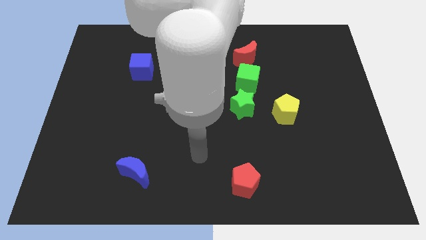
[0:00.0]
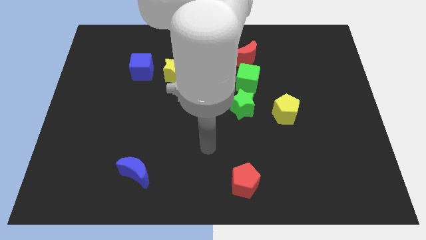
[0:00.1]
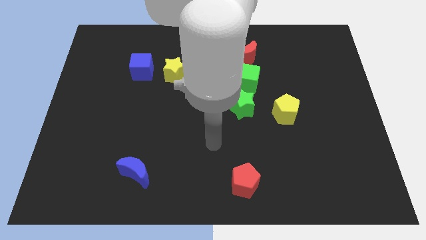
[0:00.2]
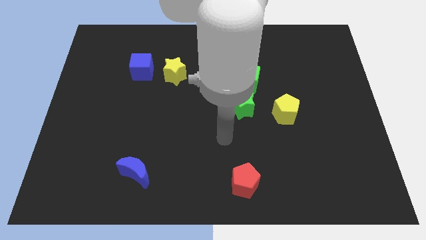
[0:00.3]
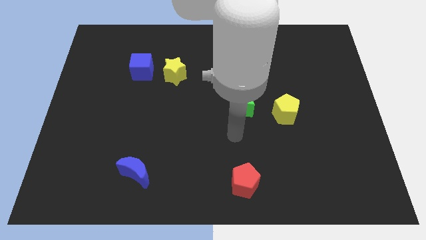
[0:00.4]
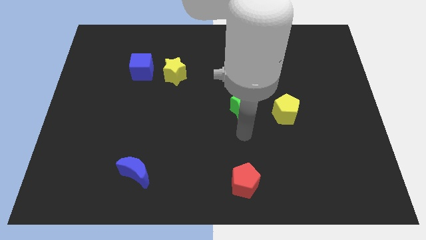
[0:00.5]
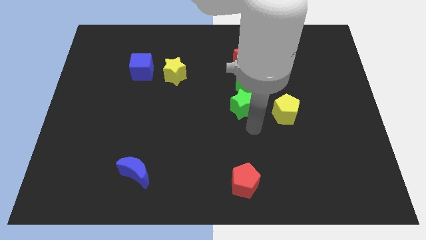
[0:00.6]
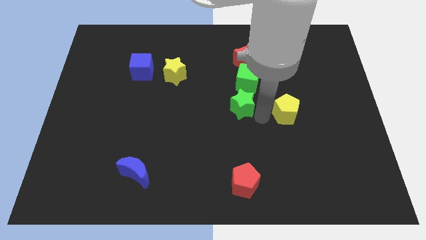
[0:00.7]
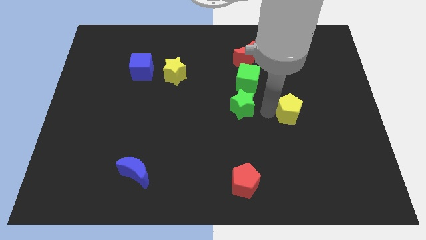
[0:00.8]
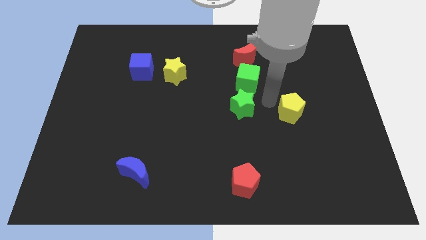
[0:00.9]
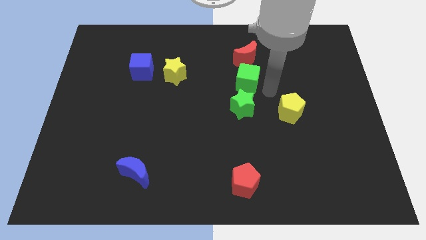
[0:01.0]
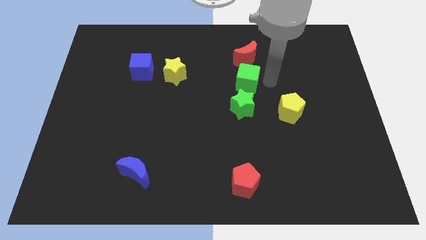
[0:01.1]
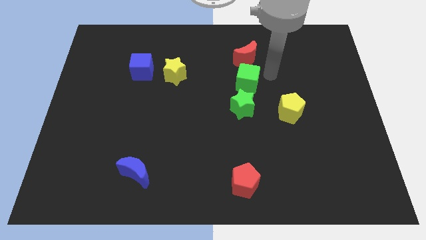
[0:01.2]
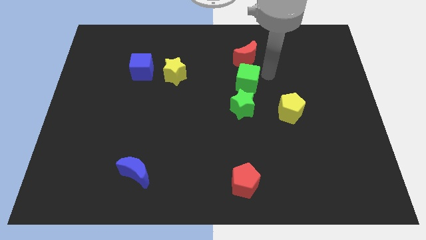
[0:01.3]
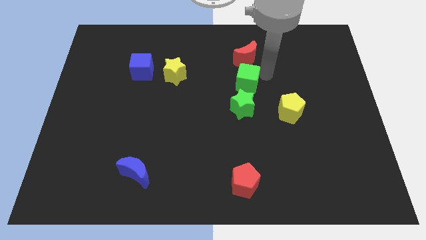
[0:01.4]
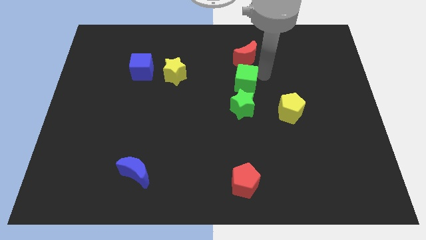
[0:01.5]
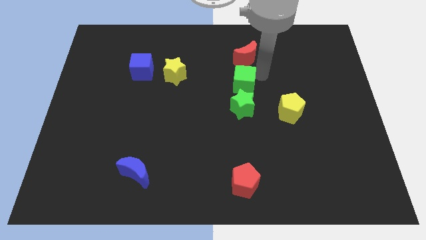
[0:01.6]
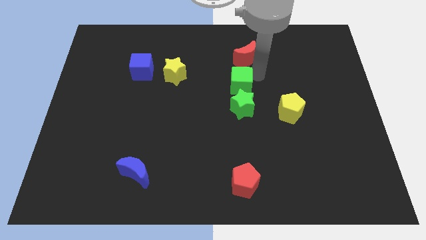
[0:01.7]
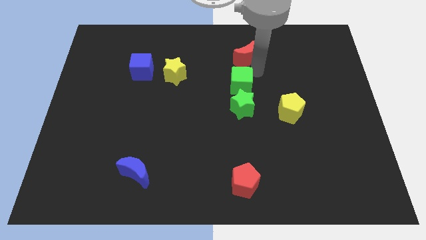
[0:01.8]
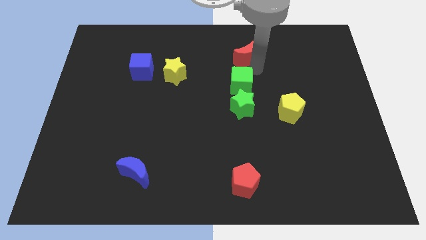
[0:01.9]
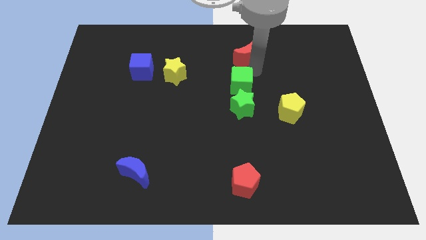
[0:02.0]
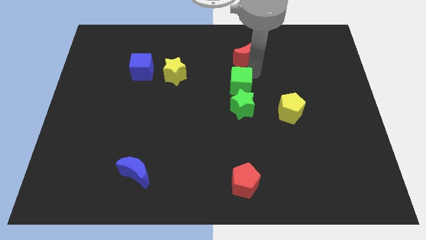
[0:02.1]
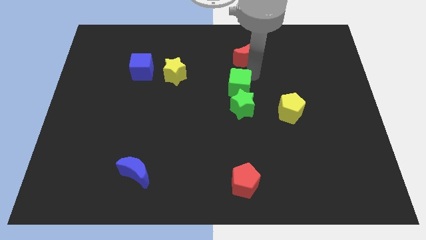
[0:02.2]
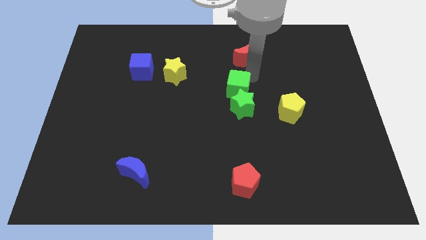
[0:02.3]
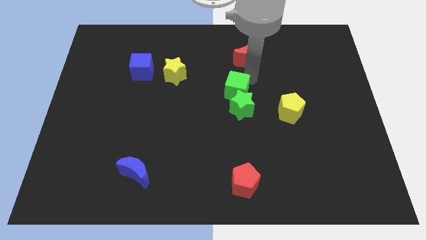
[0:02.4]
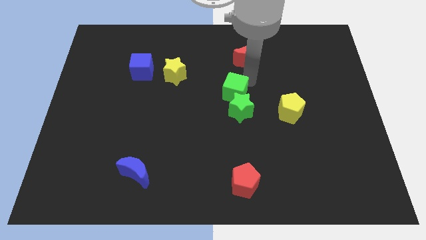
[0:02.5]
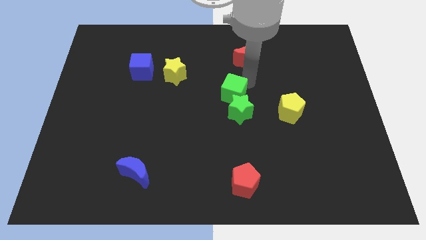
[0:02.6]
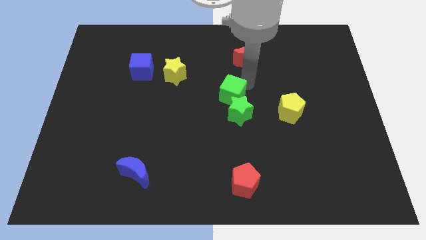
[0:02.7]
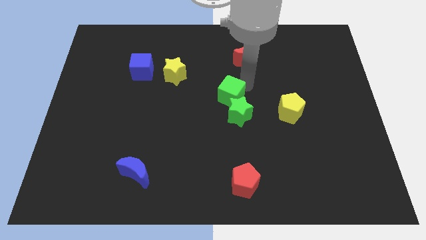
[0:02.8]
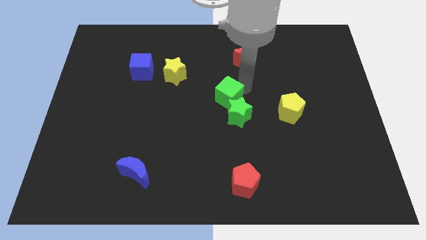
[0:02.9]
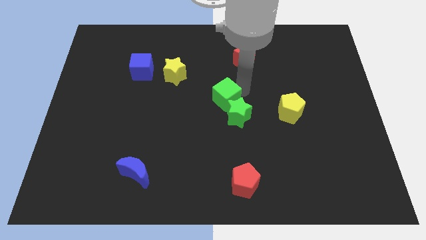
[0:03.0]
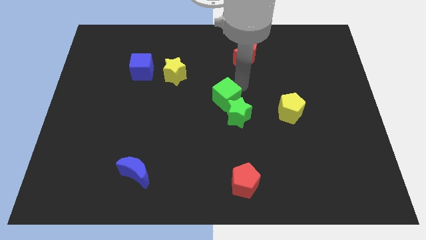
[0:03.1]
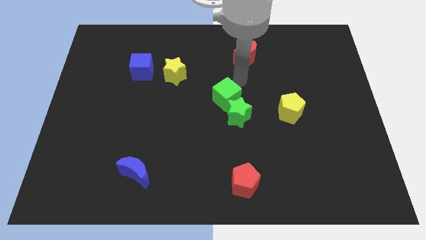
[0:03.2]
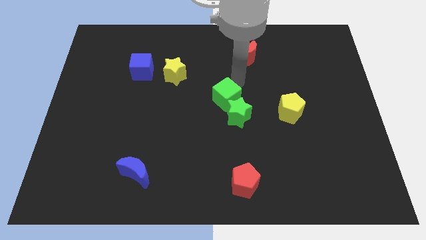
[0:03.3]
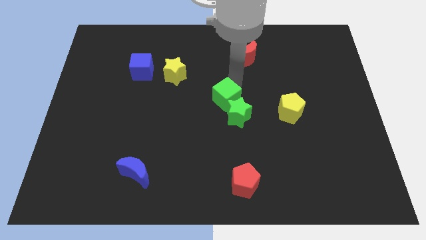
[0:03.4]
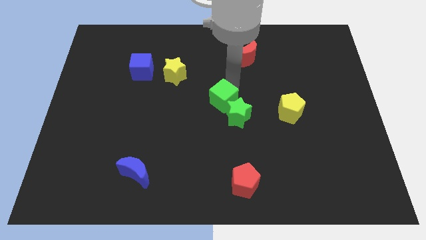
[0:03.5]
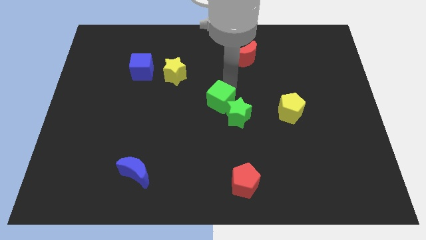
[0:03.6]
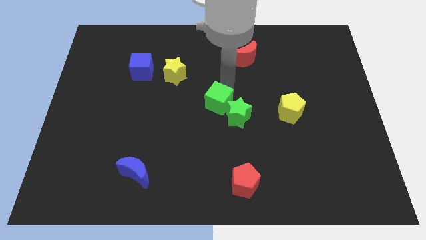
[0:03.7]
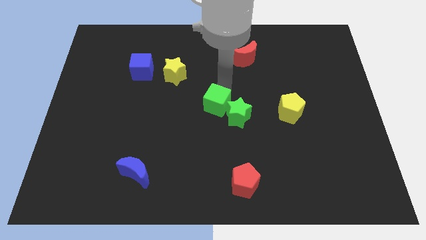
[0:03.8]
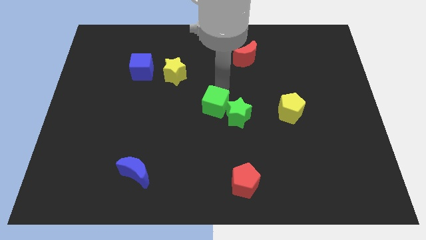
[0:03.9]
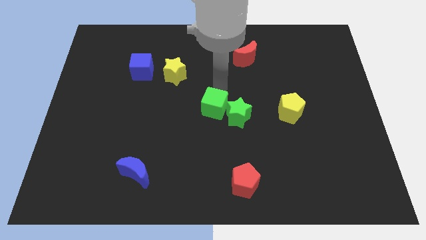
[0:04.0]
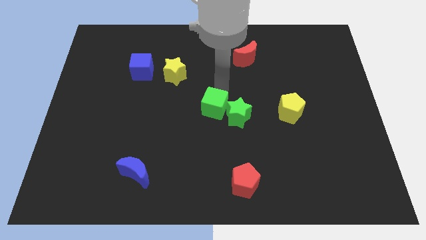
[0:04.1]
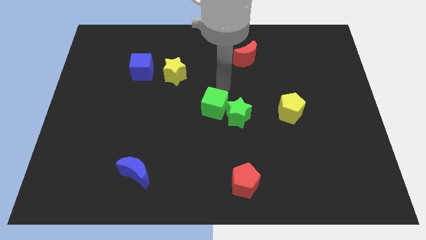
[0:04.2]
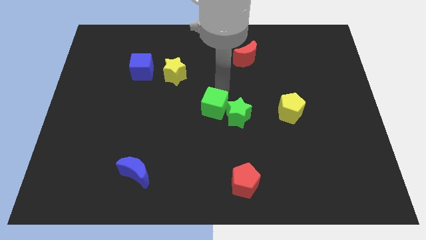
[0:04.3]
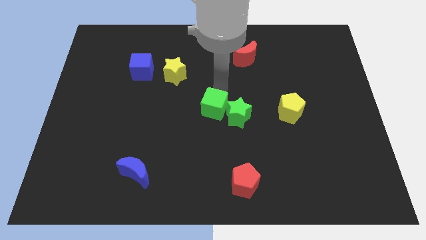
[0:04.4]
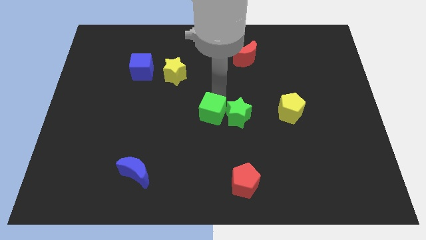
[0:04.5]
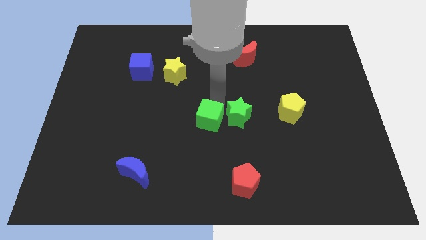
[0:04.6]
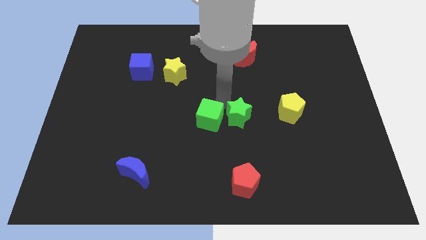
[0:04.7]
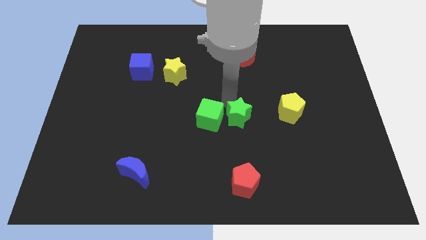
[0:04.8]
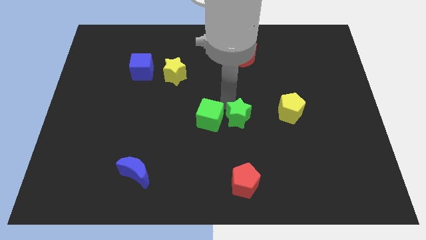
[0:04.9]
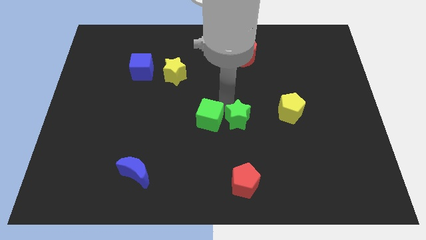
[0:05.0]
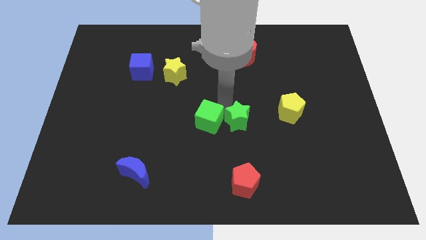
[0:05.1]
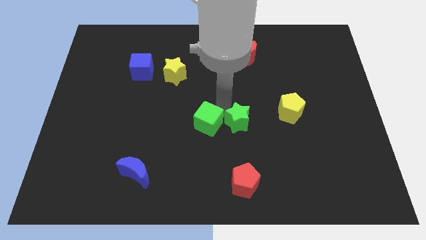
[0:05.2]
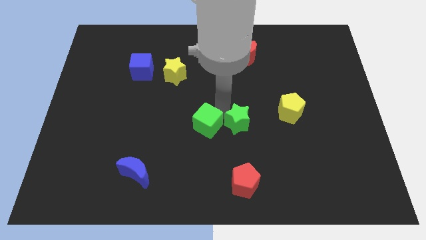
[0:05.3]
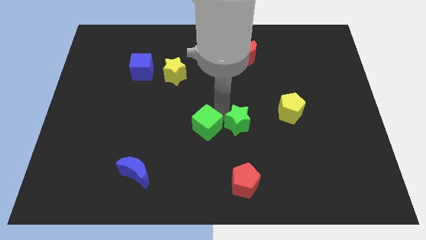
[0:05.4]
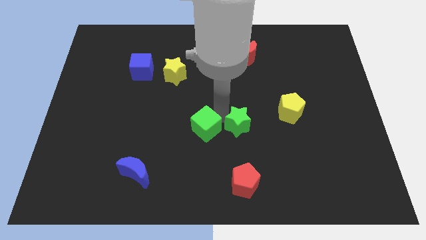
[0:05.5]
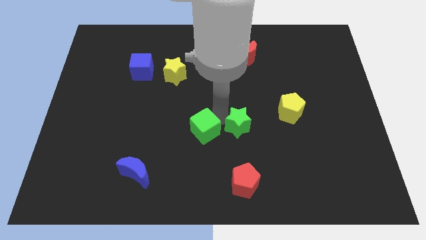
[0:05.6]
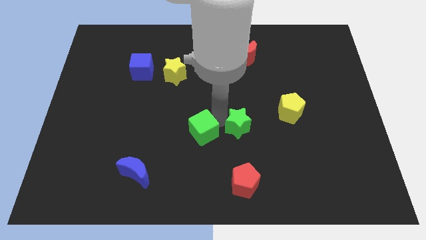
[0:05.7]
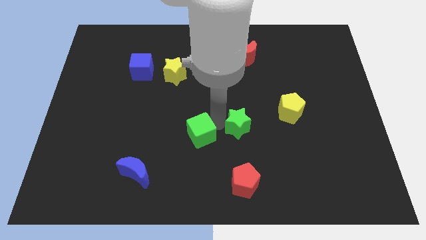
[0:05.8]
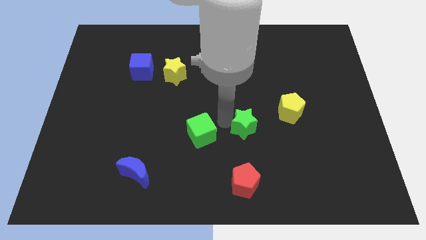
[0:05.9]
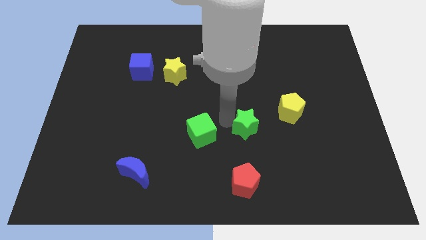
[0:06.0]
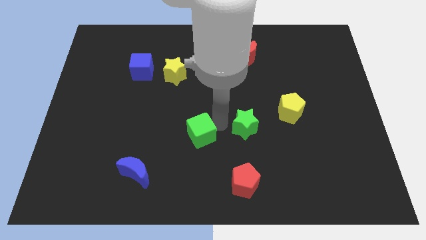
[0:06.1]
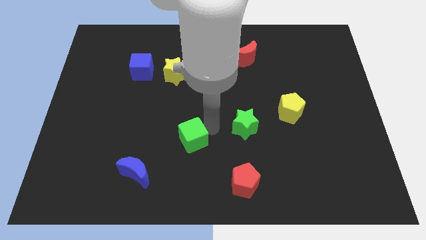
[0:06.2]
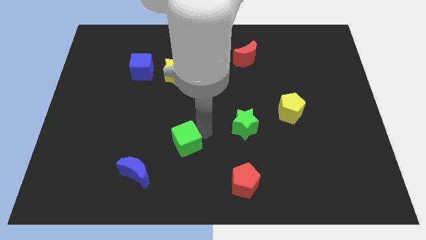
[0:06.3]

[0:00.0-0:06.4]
move the green cube to the top right of the blue moon

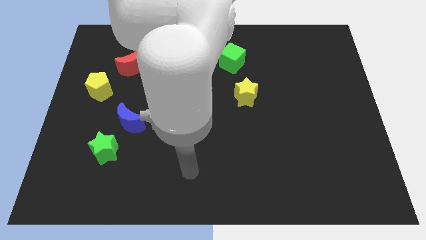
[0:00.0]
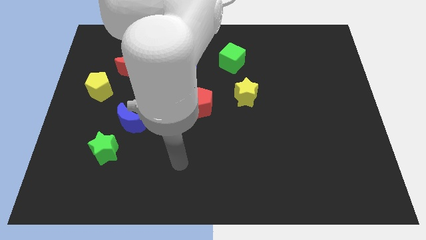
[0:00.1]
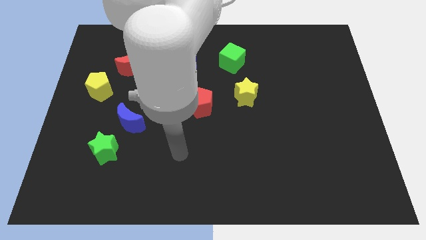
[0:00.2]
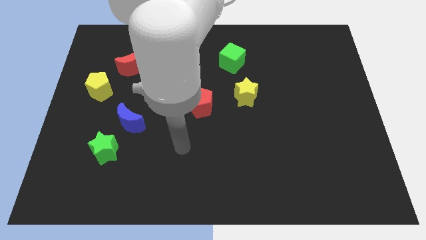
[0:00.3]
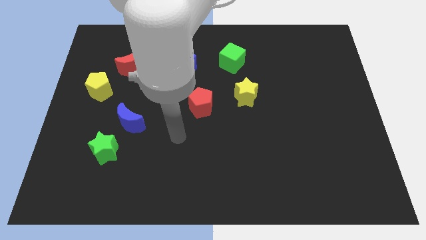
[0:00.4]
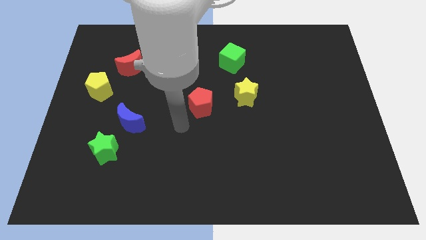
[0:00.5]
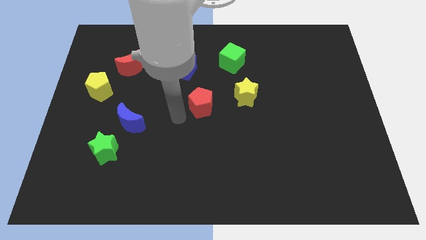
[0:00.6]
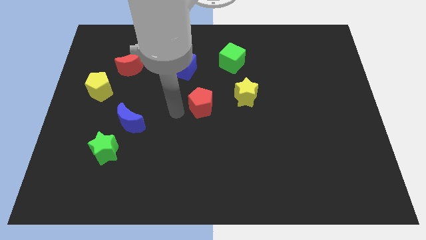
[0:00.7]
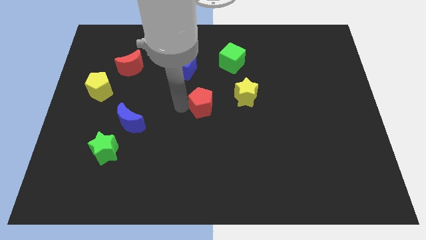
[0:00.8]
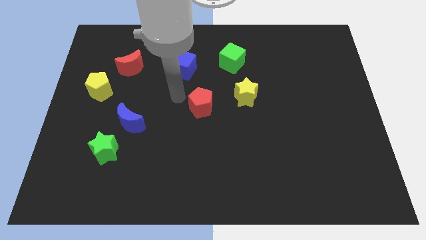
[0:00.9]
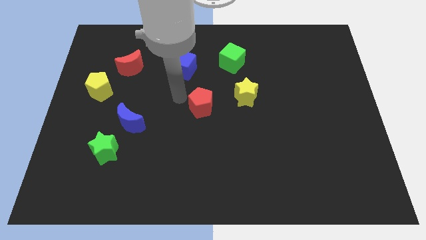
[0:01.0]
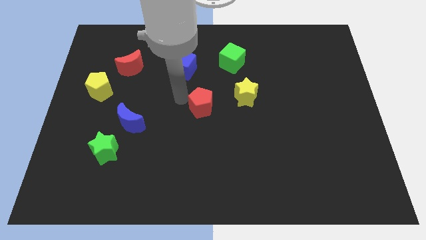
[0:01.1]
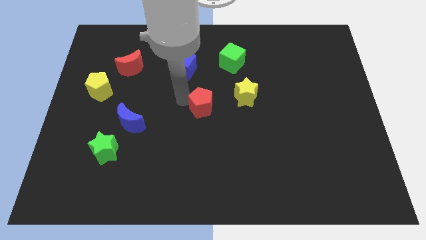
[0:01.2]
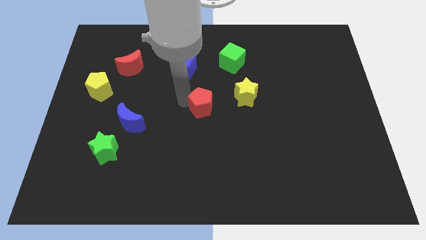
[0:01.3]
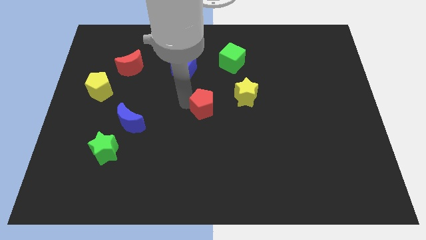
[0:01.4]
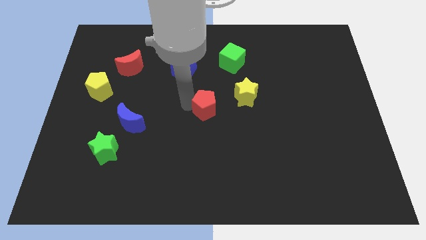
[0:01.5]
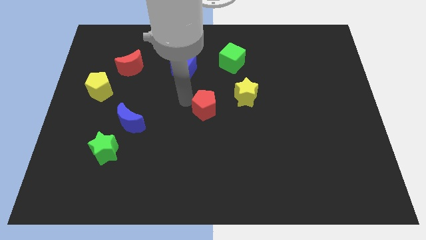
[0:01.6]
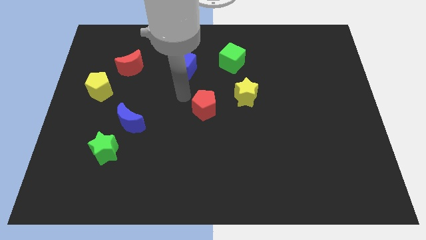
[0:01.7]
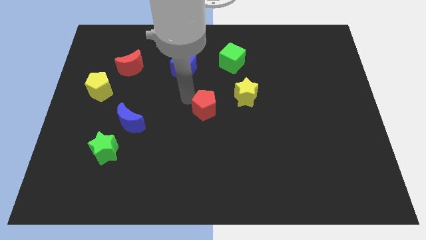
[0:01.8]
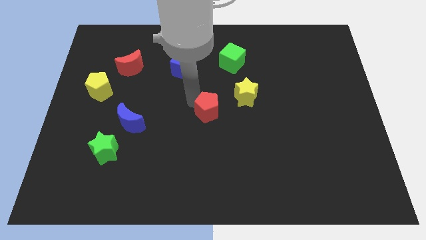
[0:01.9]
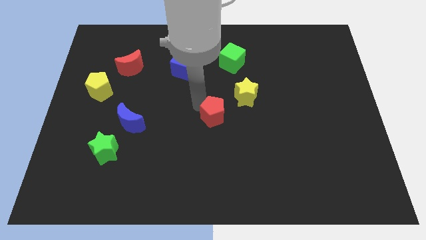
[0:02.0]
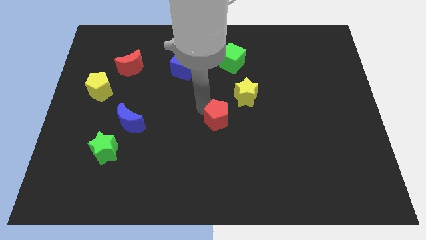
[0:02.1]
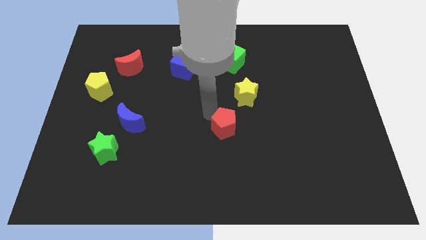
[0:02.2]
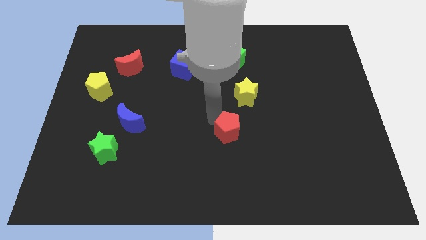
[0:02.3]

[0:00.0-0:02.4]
move the red pentagon below the yellow star
